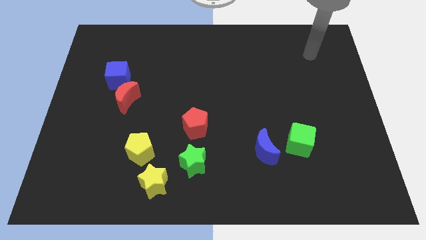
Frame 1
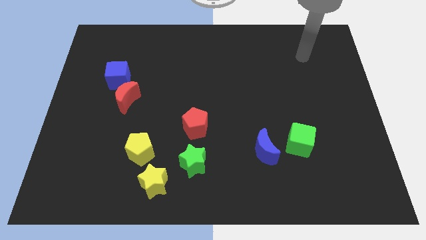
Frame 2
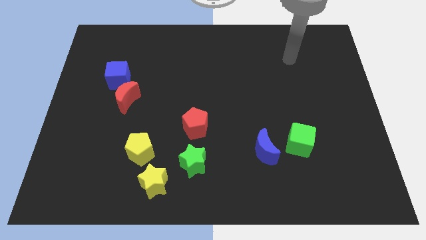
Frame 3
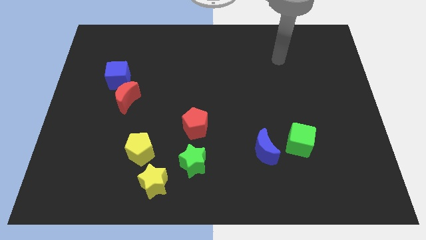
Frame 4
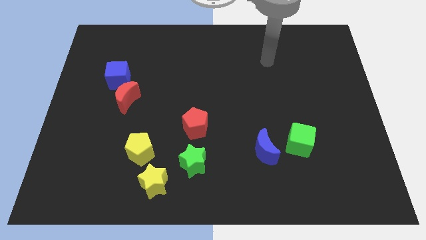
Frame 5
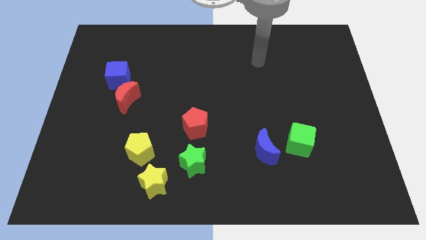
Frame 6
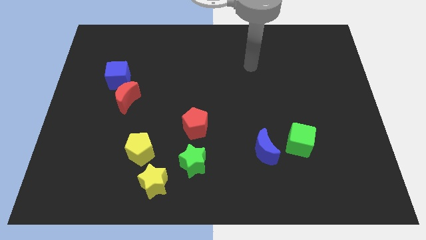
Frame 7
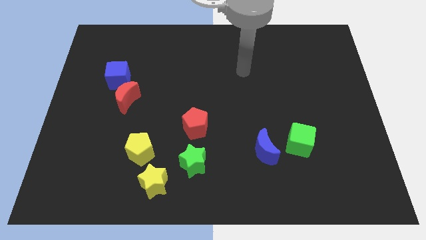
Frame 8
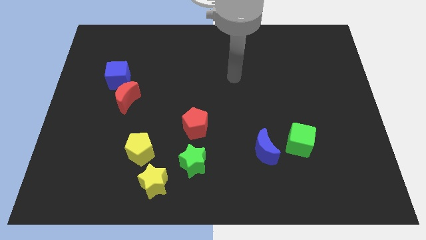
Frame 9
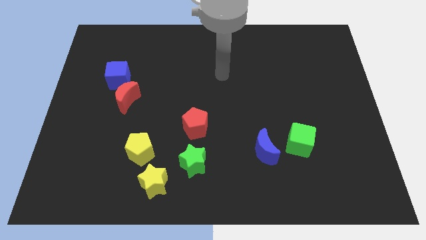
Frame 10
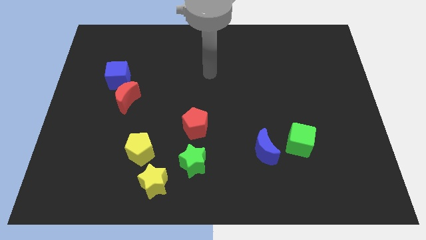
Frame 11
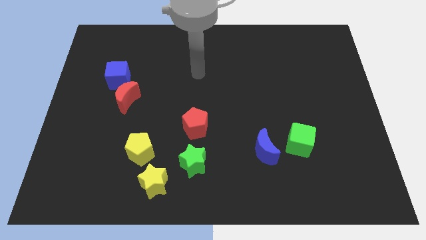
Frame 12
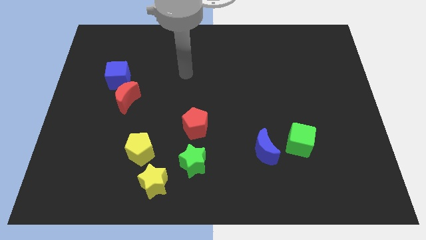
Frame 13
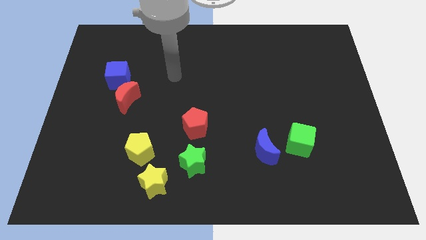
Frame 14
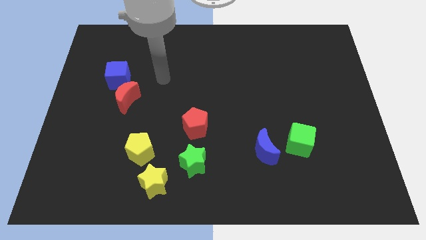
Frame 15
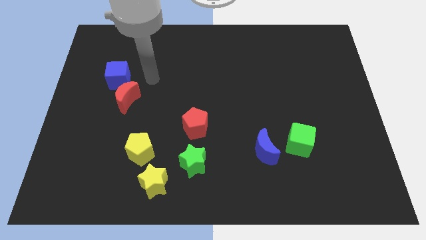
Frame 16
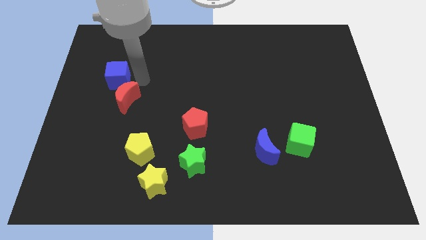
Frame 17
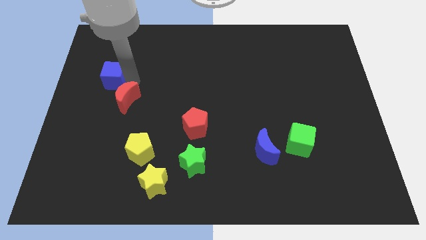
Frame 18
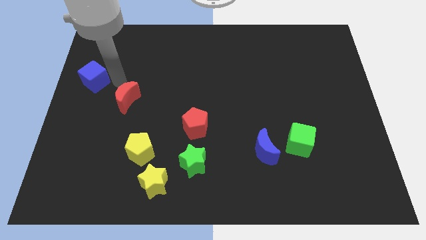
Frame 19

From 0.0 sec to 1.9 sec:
move the red moon away from the blue cube

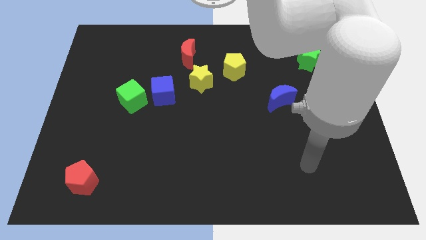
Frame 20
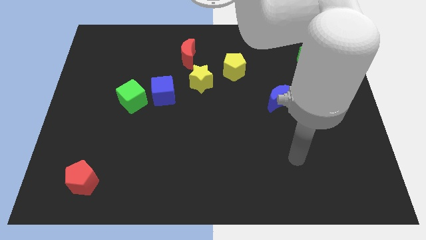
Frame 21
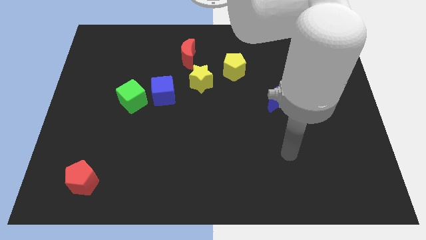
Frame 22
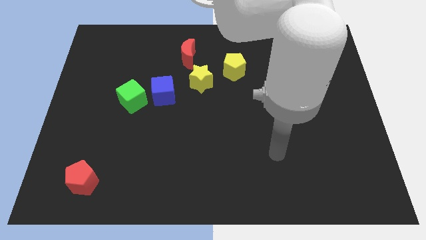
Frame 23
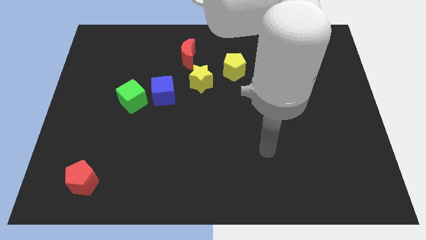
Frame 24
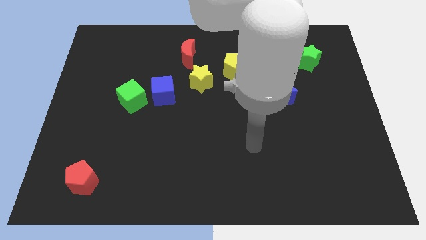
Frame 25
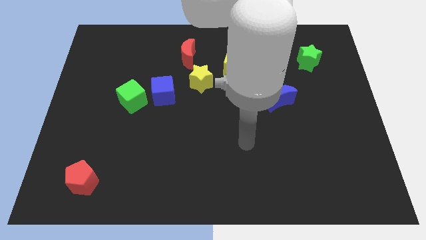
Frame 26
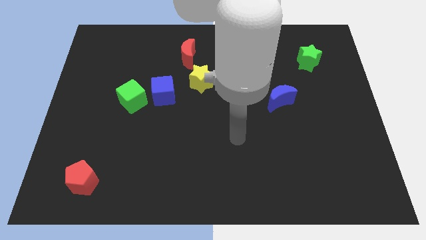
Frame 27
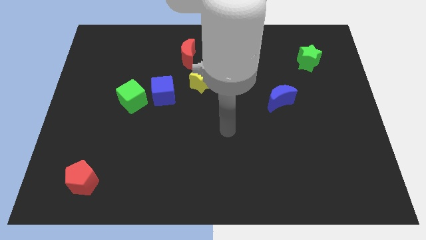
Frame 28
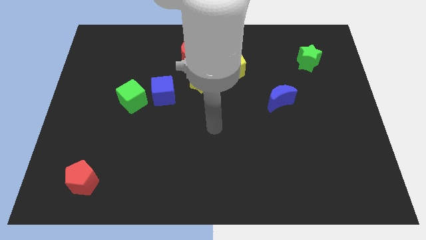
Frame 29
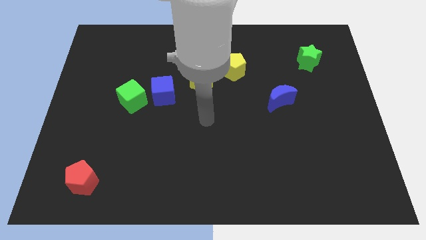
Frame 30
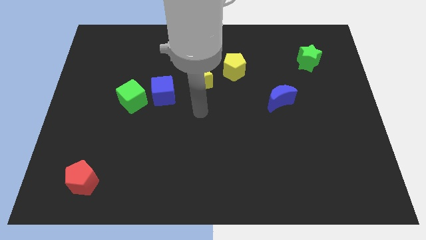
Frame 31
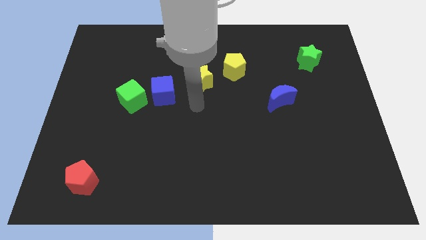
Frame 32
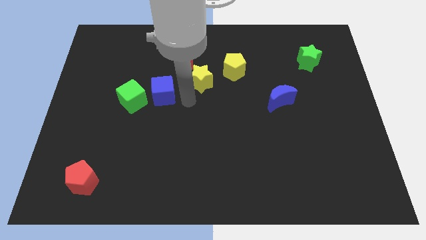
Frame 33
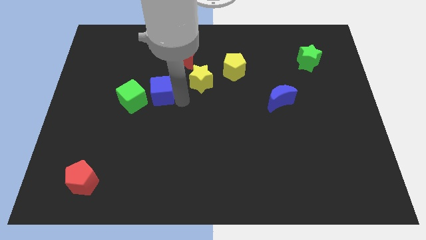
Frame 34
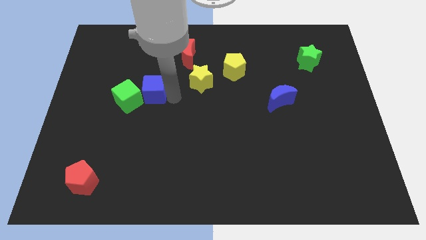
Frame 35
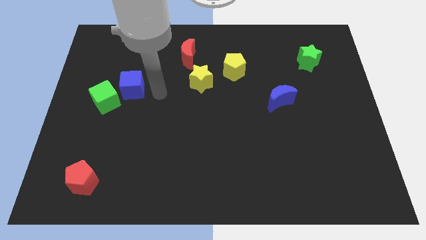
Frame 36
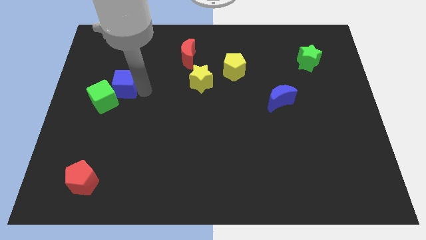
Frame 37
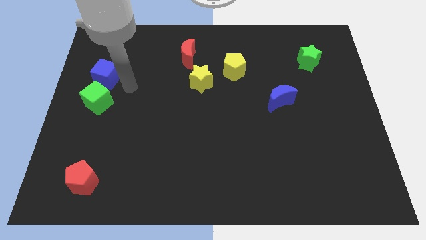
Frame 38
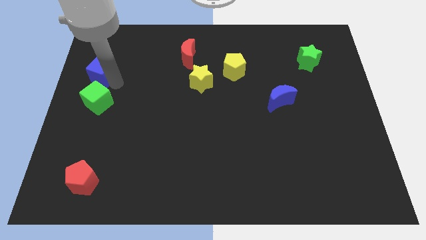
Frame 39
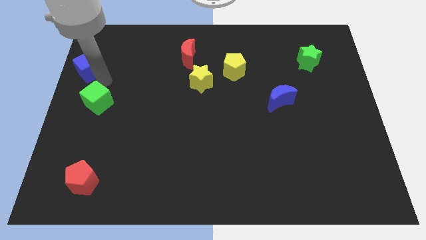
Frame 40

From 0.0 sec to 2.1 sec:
move the green cube away from the blue cube

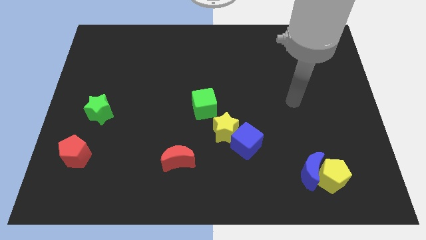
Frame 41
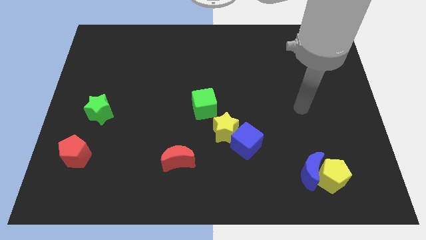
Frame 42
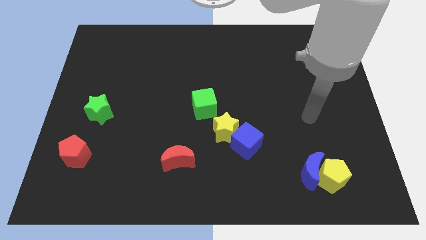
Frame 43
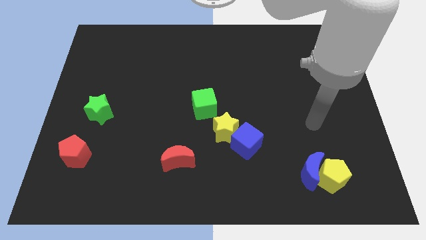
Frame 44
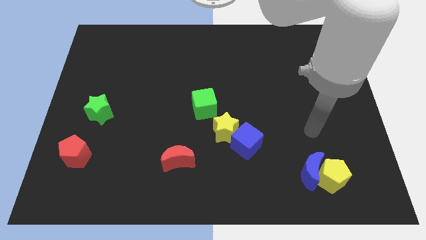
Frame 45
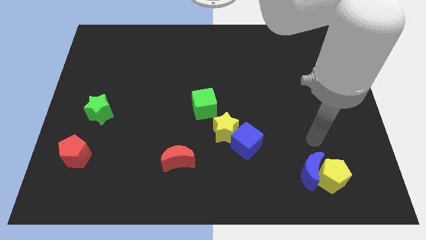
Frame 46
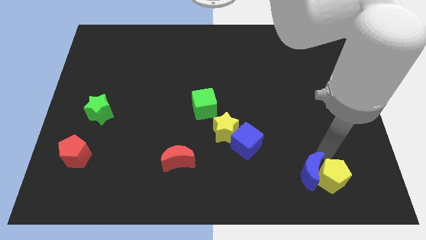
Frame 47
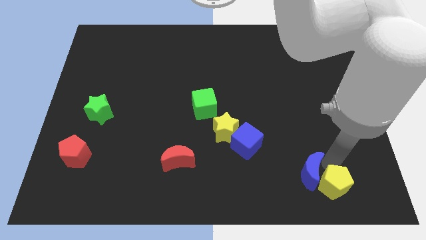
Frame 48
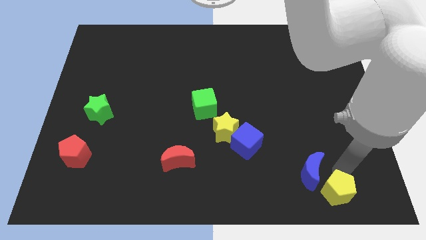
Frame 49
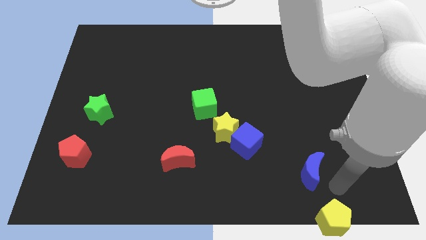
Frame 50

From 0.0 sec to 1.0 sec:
separate the blue moon from the yellow pentagon

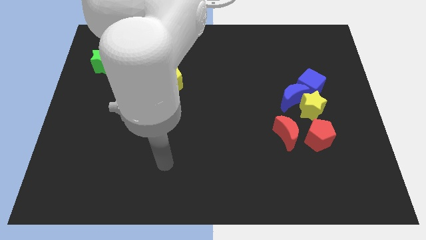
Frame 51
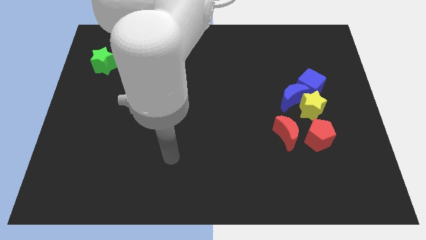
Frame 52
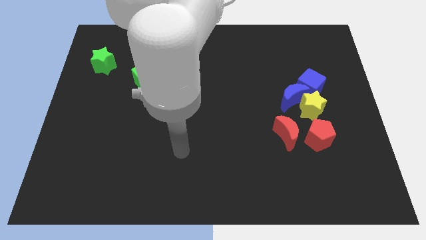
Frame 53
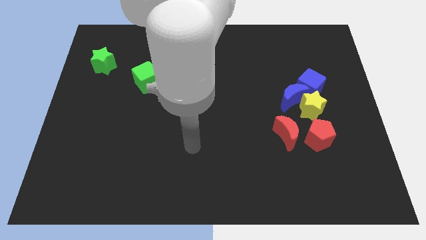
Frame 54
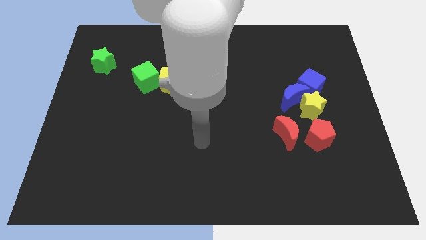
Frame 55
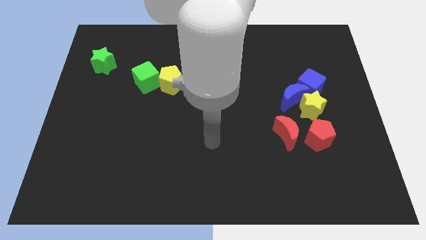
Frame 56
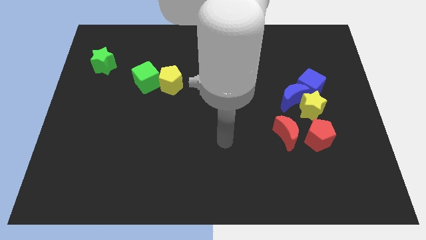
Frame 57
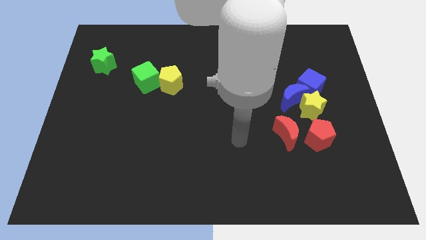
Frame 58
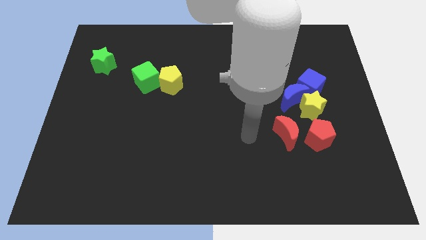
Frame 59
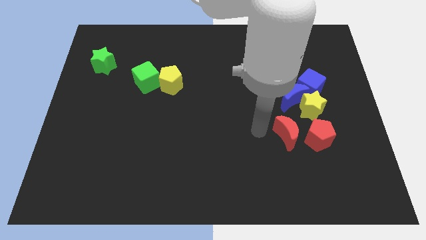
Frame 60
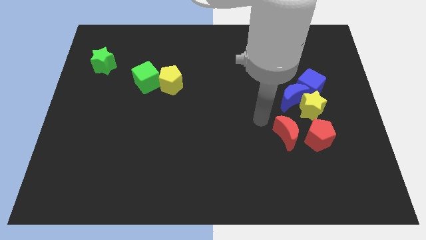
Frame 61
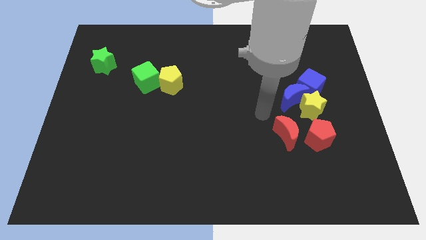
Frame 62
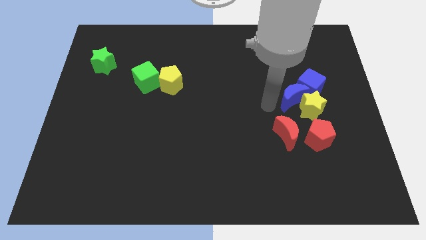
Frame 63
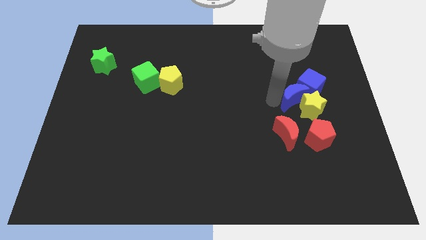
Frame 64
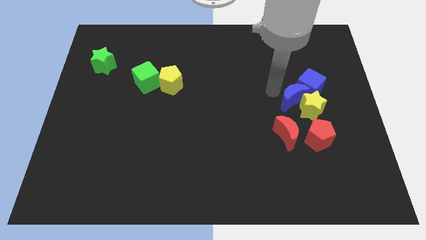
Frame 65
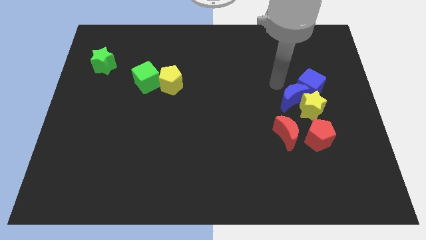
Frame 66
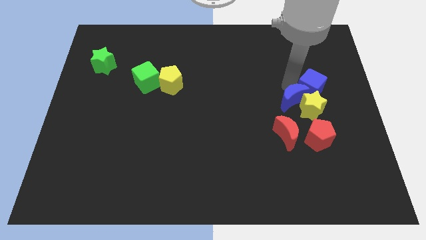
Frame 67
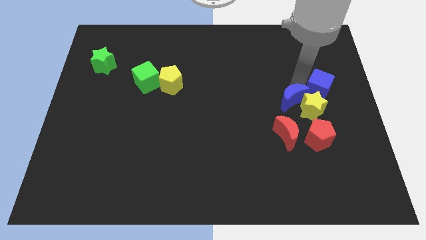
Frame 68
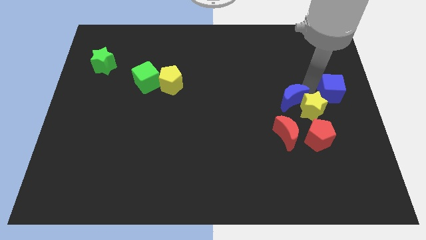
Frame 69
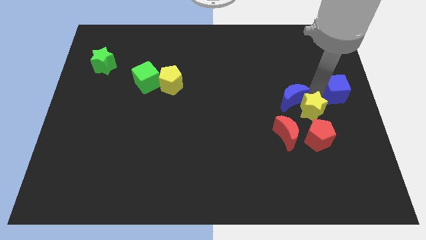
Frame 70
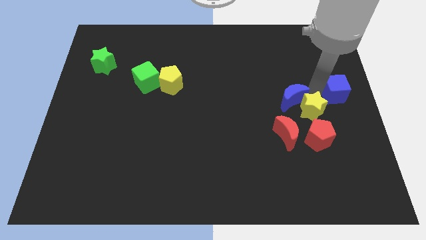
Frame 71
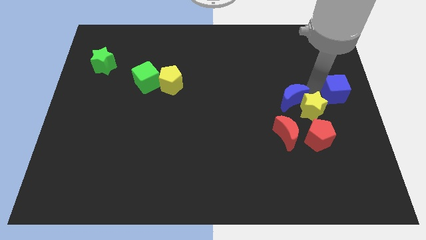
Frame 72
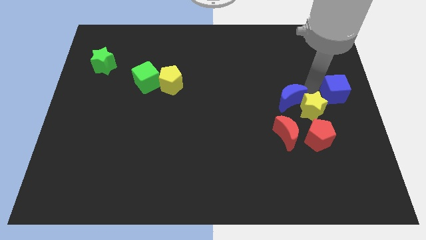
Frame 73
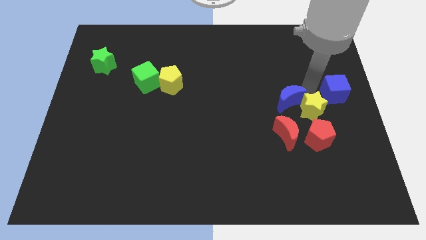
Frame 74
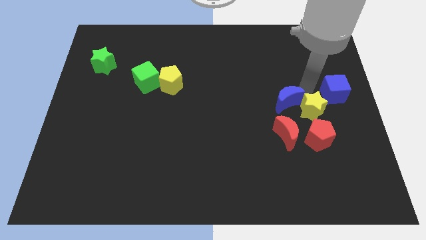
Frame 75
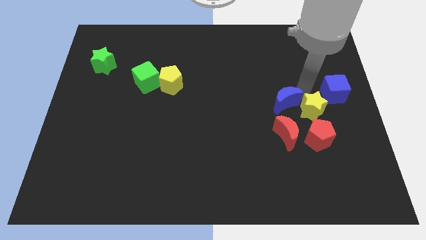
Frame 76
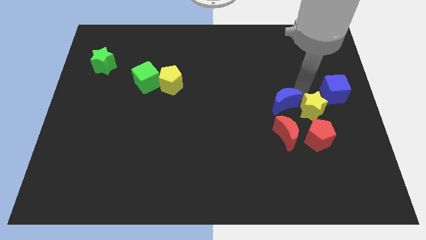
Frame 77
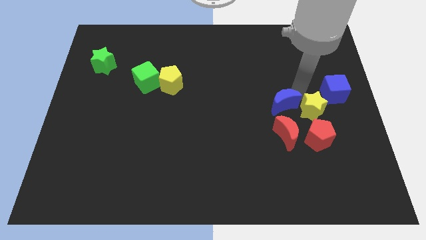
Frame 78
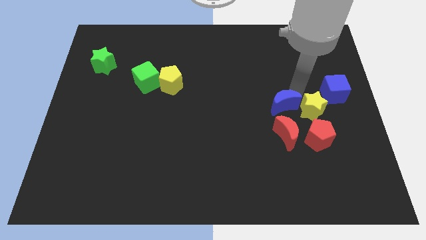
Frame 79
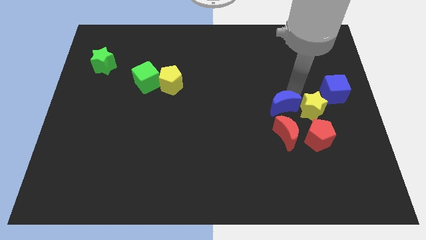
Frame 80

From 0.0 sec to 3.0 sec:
move the blue moon away from the yellow star and blue cube

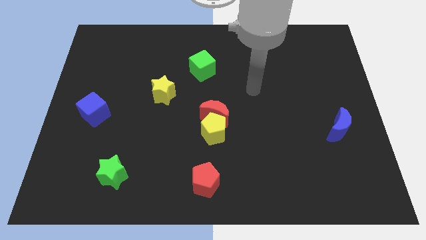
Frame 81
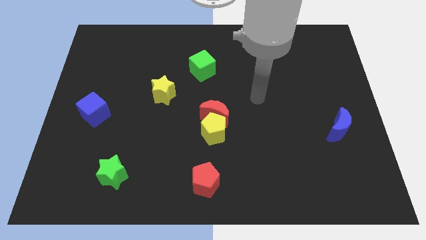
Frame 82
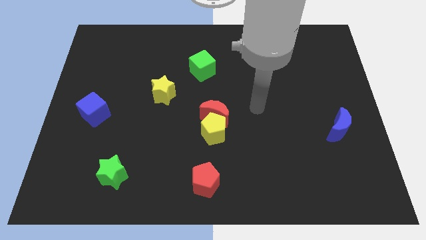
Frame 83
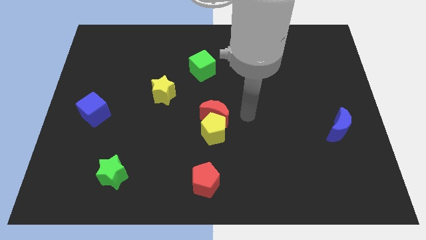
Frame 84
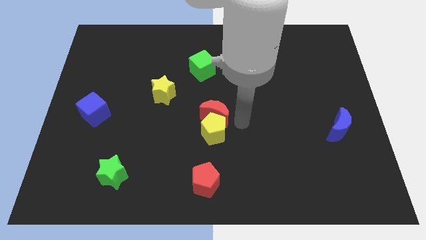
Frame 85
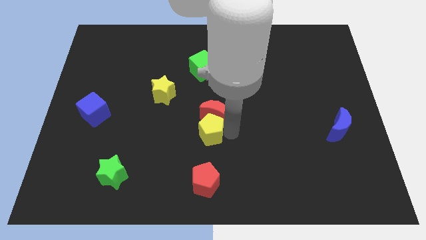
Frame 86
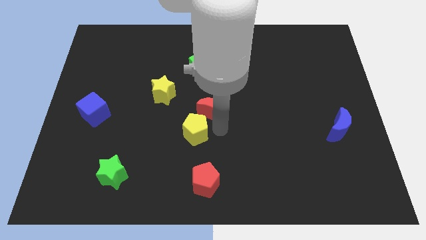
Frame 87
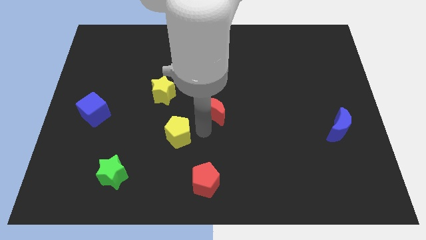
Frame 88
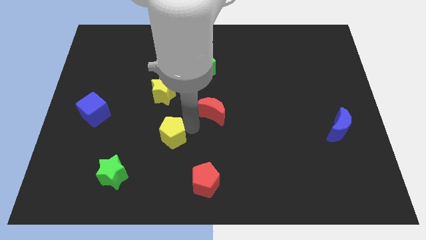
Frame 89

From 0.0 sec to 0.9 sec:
move the red moon away from the yellow pentagon

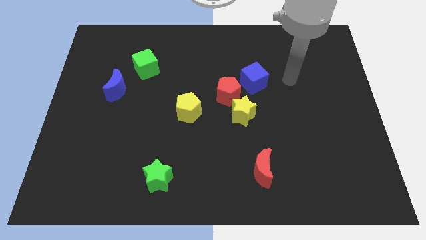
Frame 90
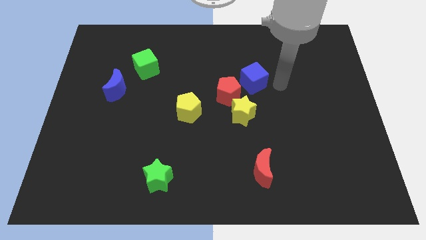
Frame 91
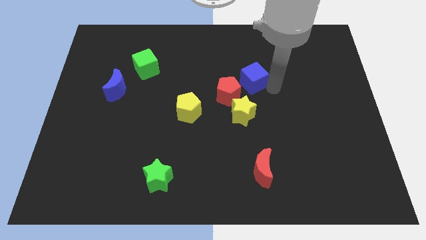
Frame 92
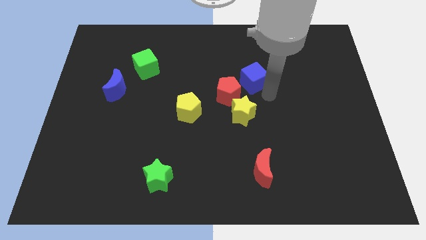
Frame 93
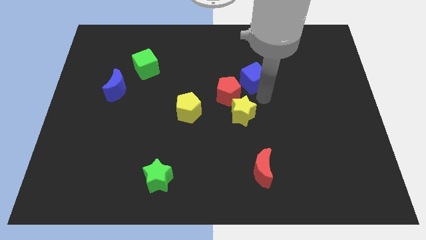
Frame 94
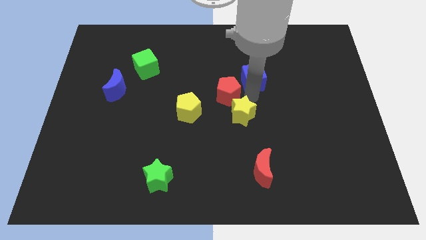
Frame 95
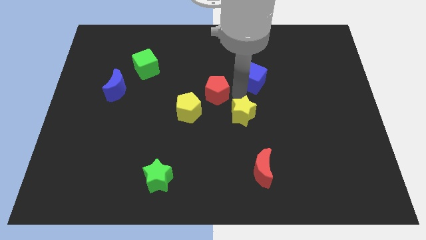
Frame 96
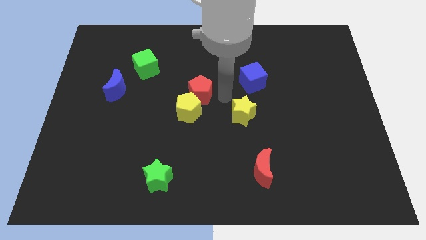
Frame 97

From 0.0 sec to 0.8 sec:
move the yellow star away from the red pentagon
